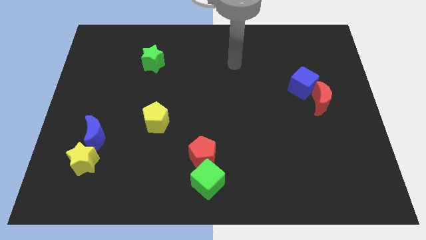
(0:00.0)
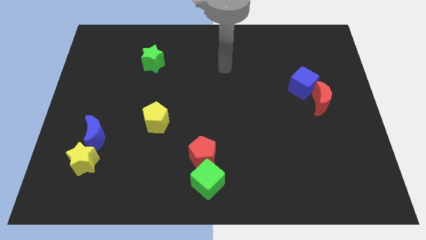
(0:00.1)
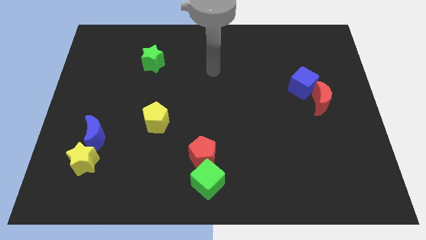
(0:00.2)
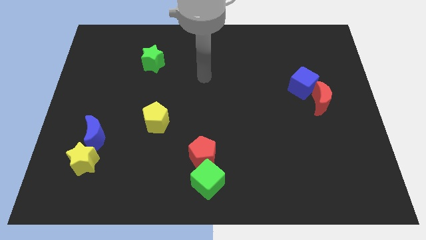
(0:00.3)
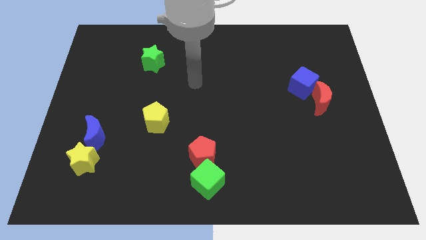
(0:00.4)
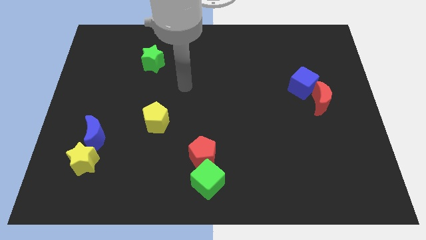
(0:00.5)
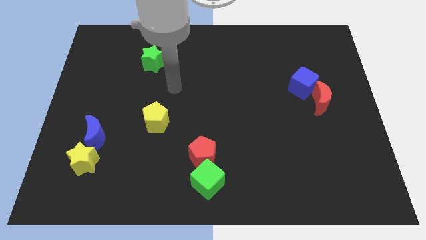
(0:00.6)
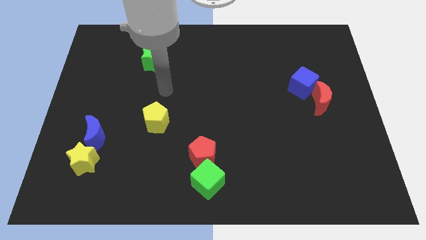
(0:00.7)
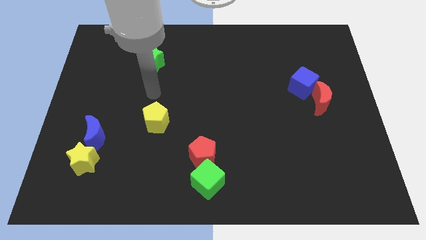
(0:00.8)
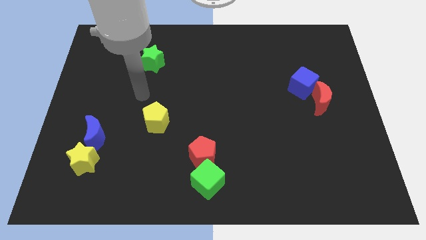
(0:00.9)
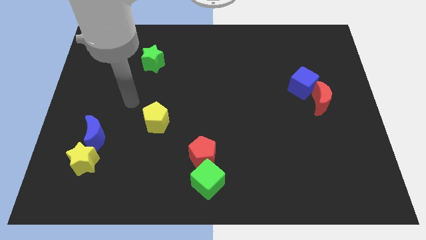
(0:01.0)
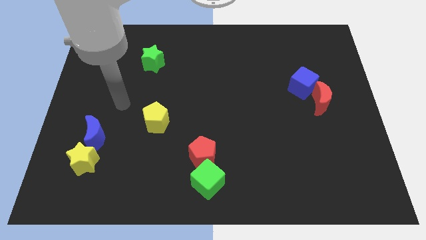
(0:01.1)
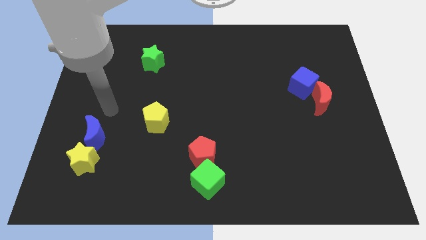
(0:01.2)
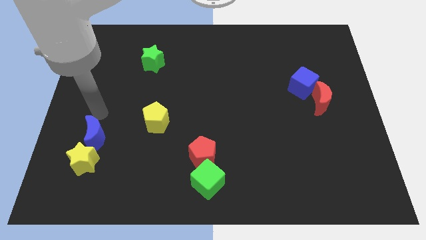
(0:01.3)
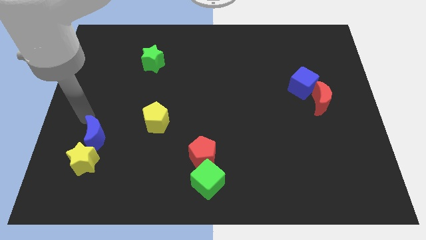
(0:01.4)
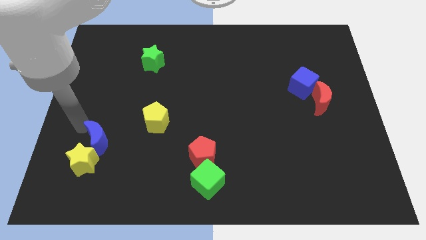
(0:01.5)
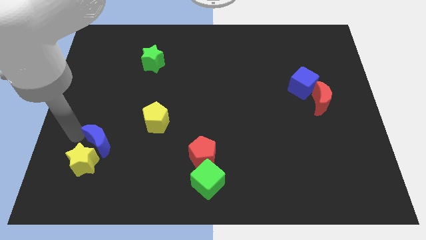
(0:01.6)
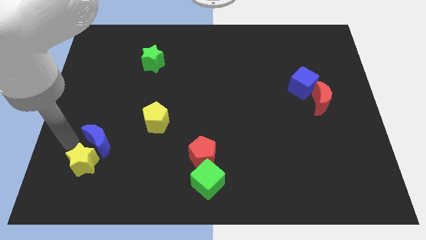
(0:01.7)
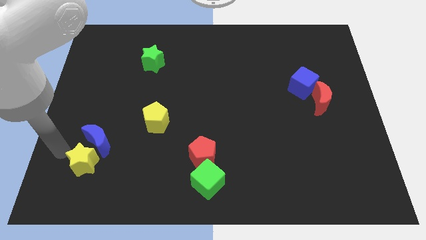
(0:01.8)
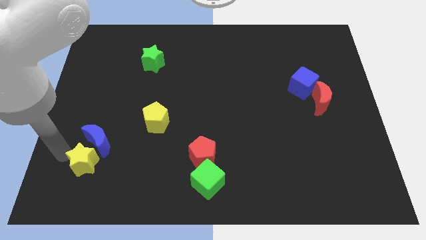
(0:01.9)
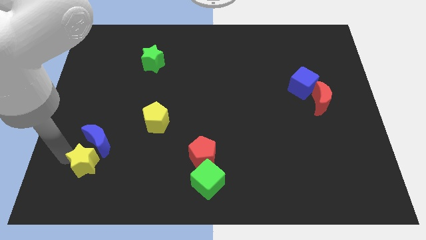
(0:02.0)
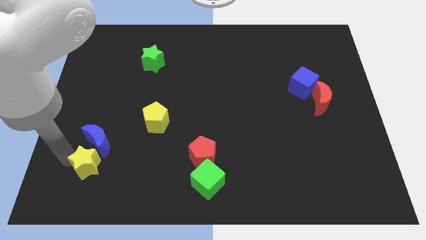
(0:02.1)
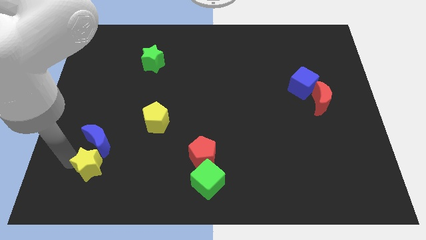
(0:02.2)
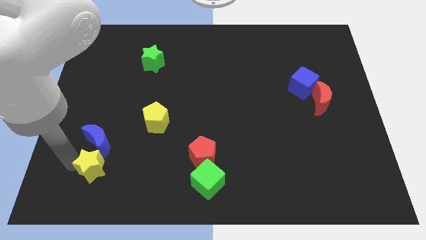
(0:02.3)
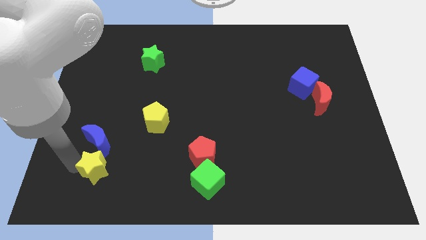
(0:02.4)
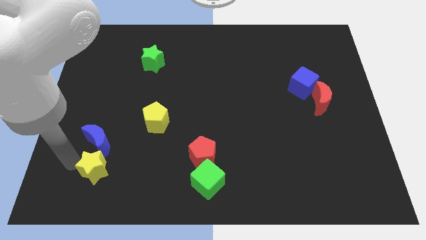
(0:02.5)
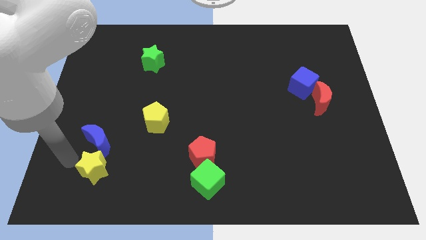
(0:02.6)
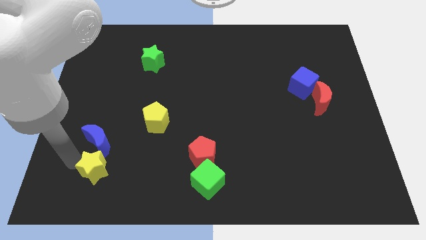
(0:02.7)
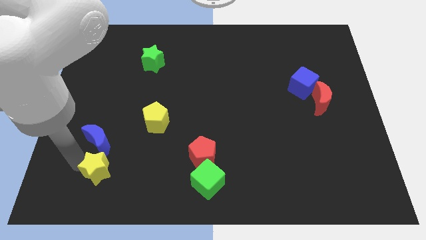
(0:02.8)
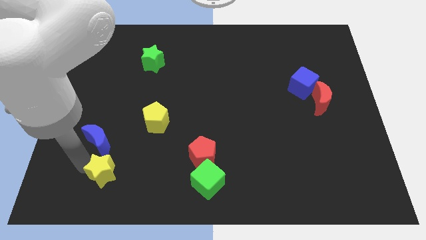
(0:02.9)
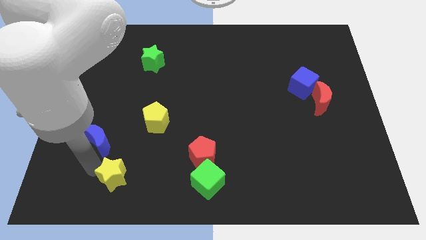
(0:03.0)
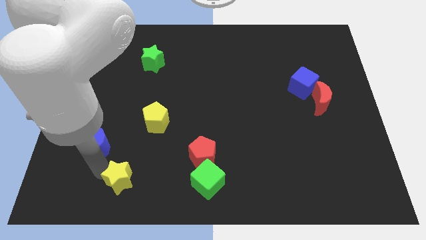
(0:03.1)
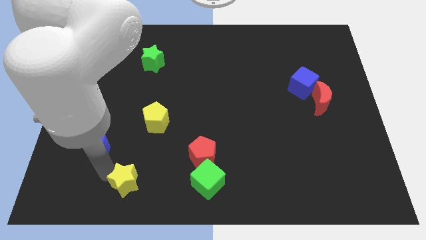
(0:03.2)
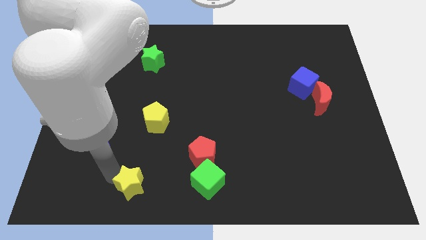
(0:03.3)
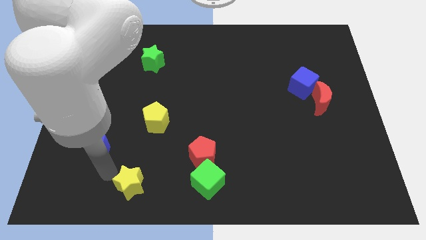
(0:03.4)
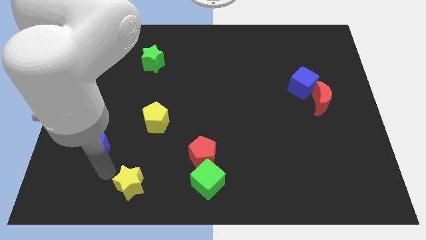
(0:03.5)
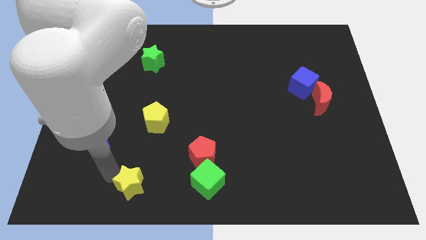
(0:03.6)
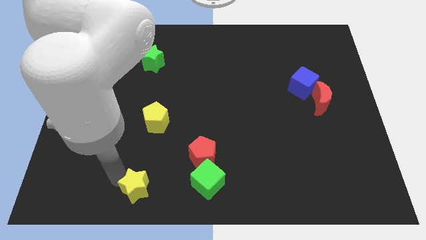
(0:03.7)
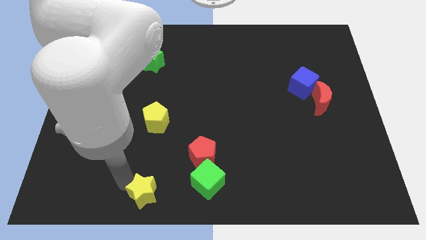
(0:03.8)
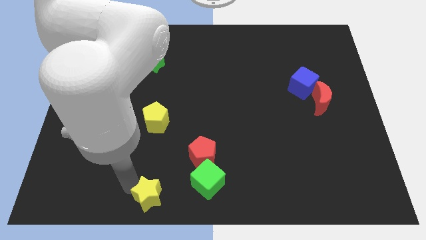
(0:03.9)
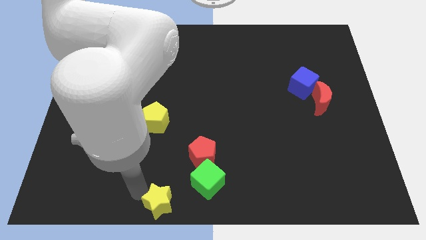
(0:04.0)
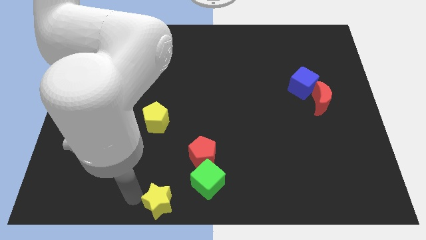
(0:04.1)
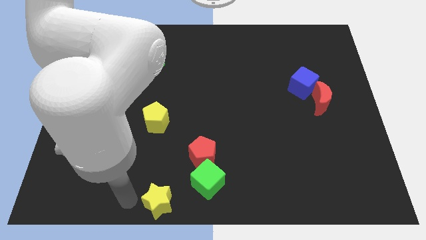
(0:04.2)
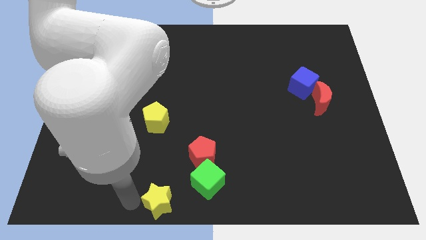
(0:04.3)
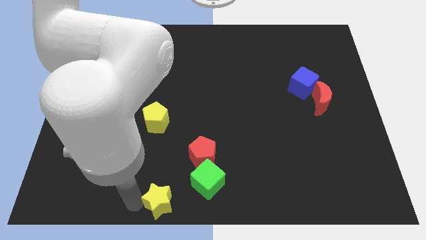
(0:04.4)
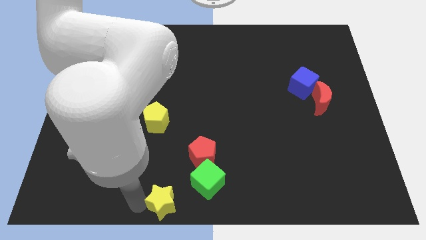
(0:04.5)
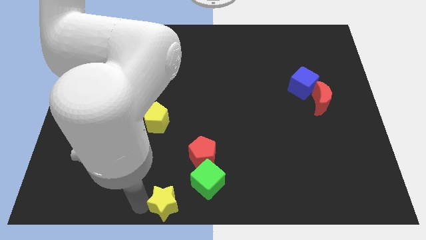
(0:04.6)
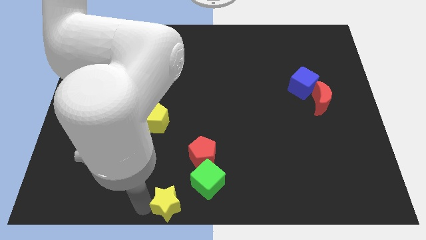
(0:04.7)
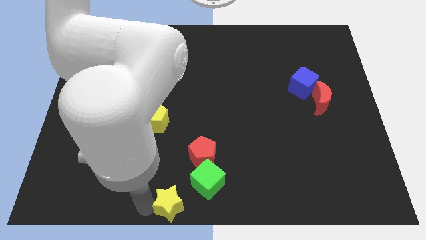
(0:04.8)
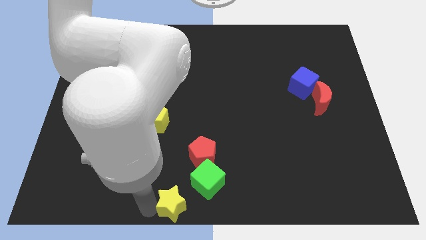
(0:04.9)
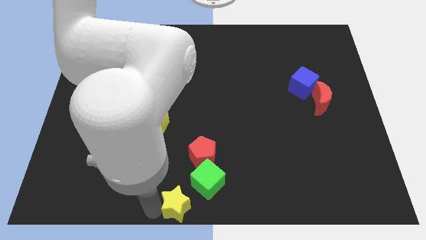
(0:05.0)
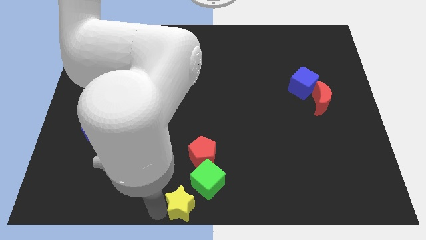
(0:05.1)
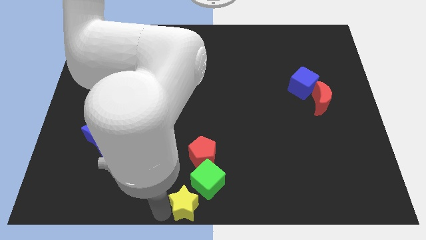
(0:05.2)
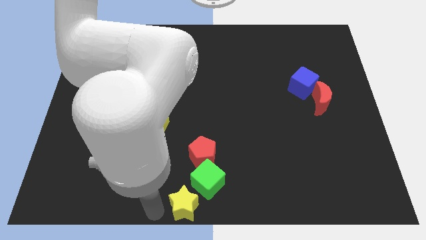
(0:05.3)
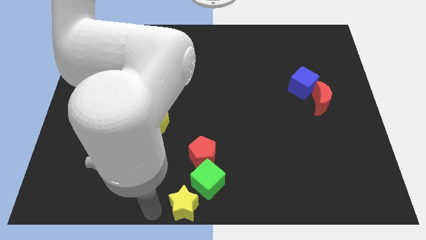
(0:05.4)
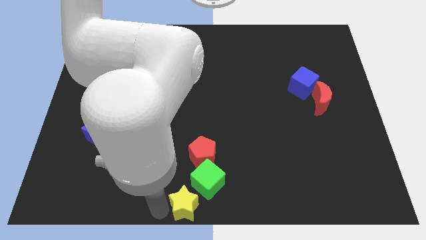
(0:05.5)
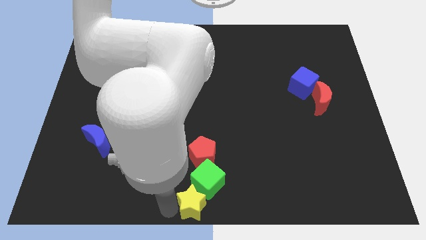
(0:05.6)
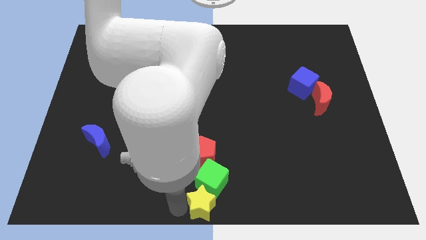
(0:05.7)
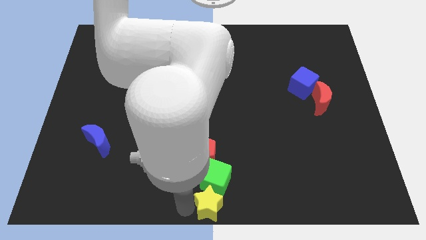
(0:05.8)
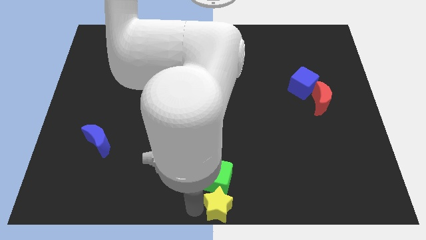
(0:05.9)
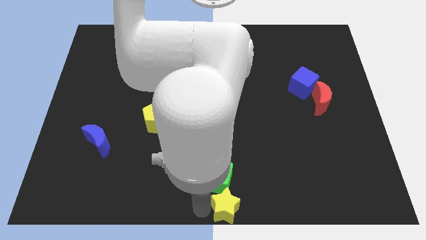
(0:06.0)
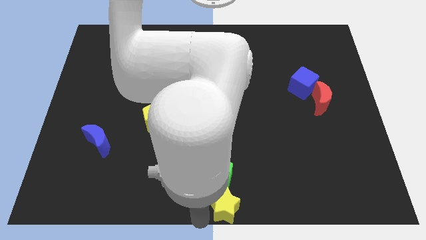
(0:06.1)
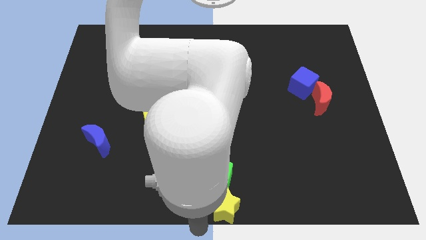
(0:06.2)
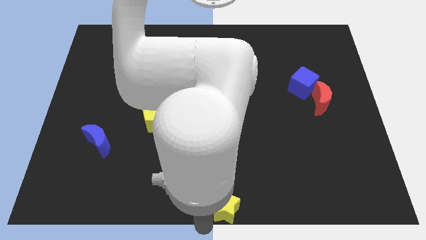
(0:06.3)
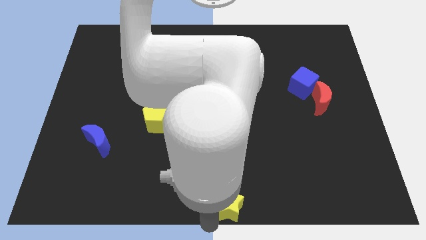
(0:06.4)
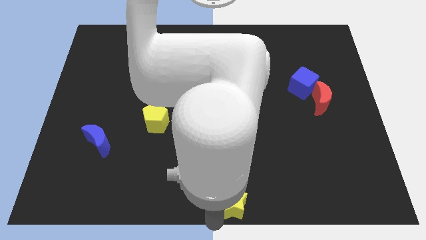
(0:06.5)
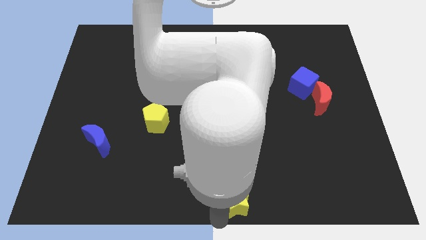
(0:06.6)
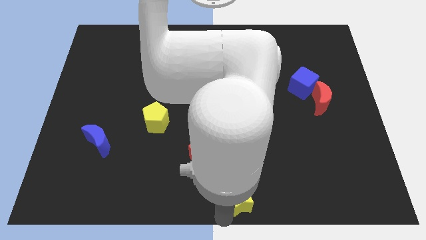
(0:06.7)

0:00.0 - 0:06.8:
put the yellow star just right of the green cube

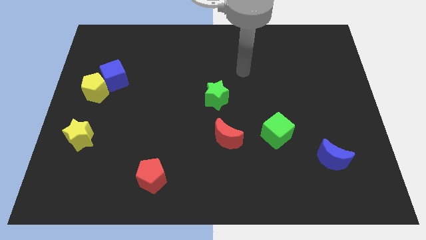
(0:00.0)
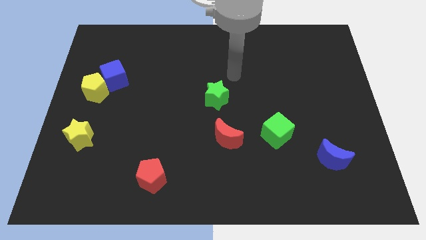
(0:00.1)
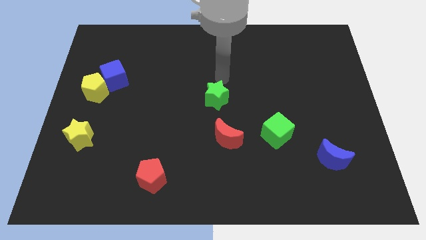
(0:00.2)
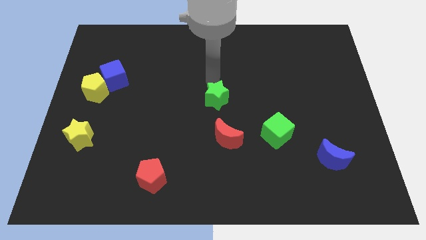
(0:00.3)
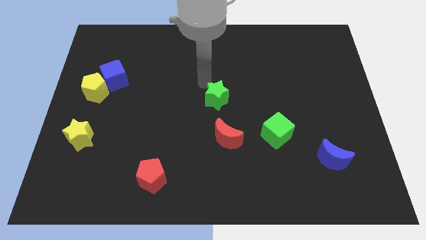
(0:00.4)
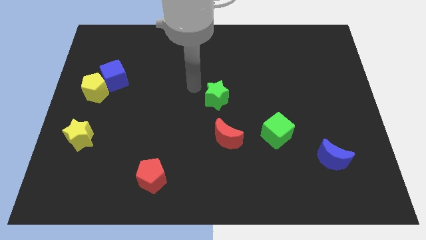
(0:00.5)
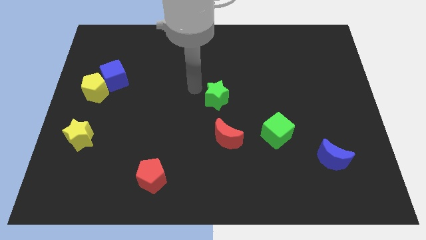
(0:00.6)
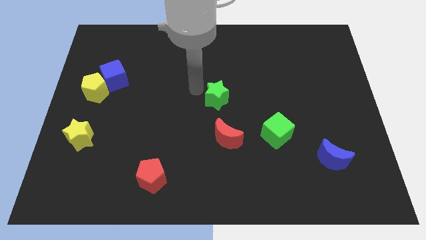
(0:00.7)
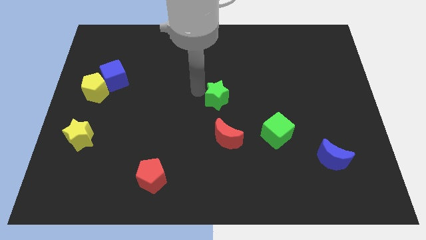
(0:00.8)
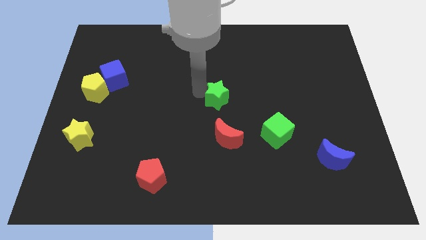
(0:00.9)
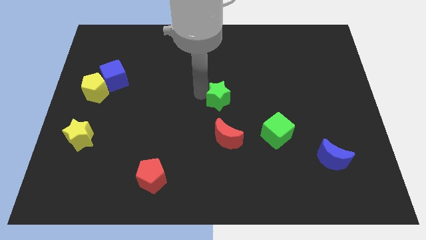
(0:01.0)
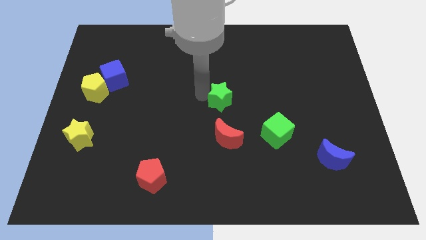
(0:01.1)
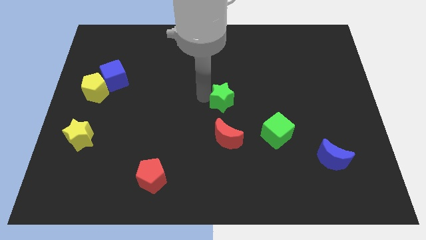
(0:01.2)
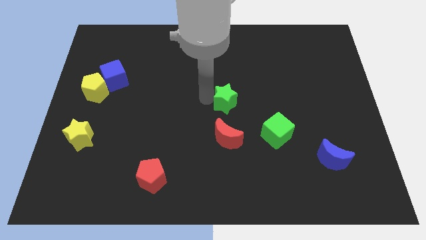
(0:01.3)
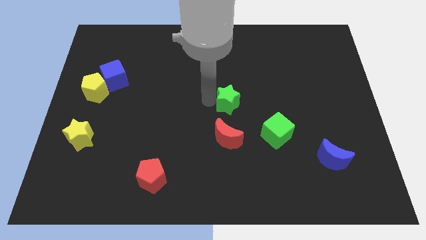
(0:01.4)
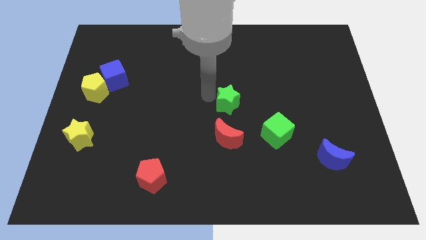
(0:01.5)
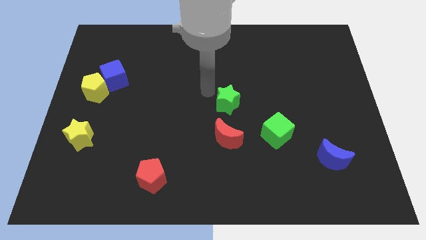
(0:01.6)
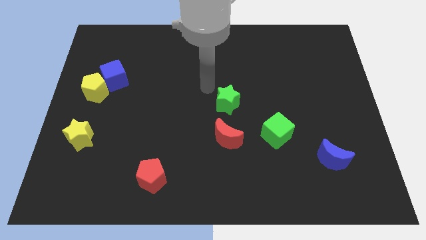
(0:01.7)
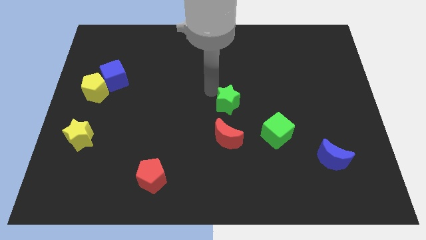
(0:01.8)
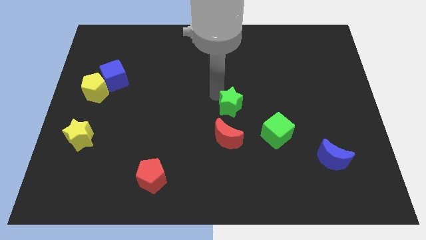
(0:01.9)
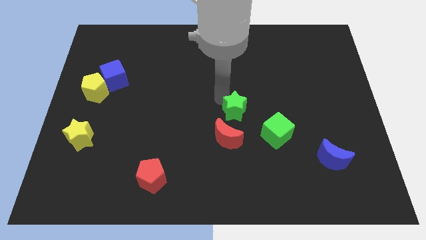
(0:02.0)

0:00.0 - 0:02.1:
put the green star to the top right side of the red moon
